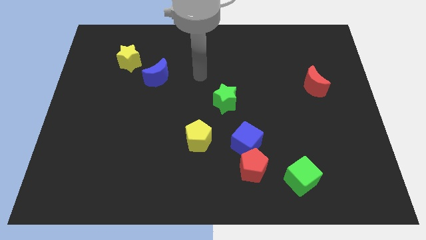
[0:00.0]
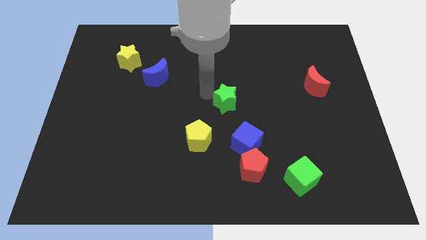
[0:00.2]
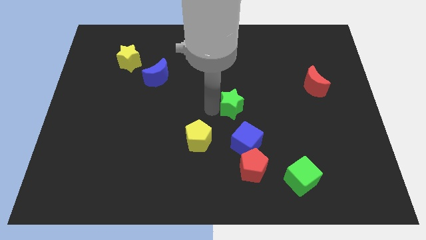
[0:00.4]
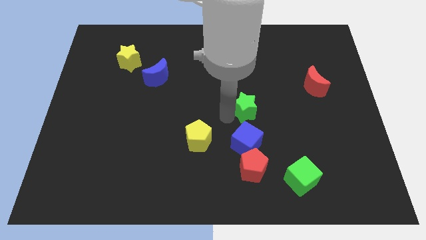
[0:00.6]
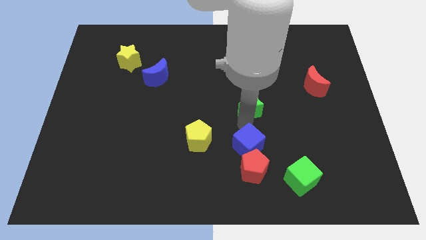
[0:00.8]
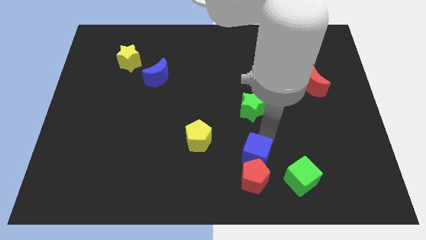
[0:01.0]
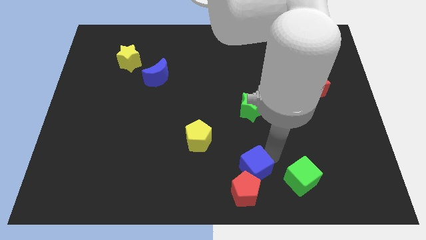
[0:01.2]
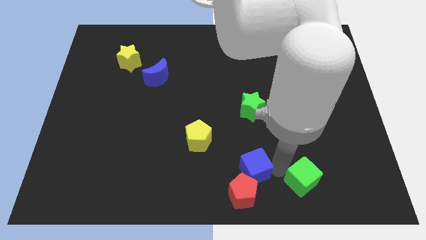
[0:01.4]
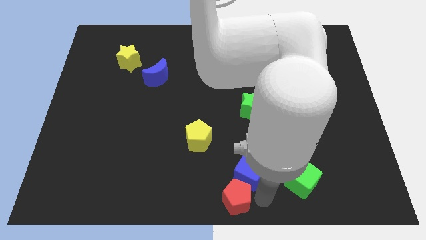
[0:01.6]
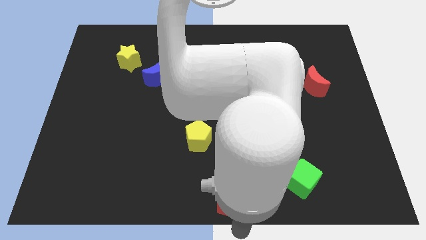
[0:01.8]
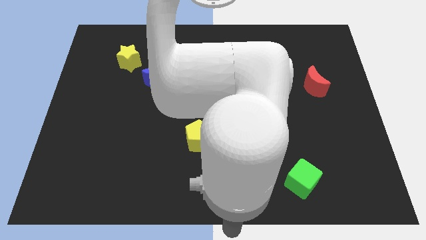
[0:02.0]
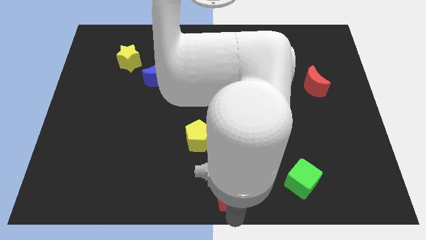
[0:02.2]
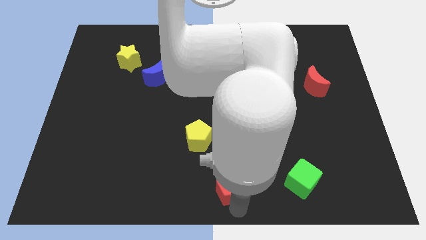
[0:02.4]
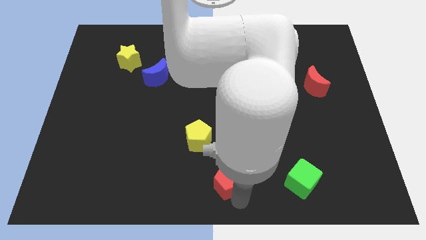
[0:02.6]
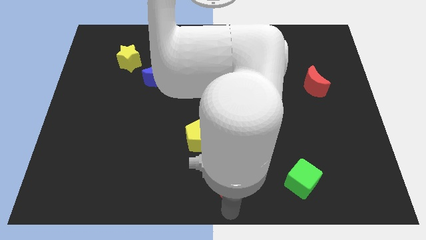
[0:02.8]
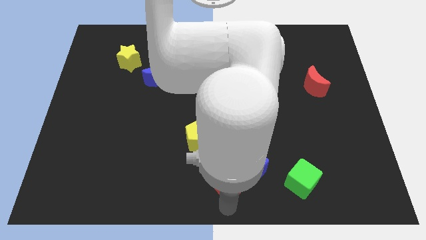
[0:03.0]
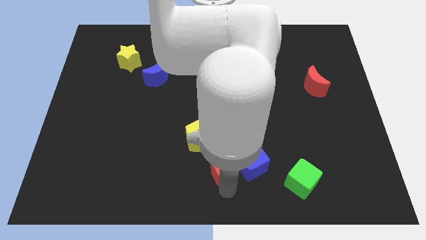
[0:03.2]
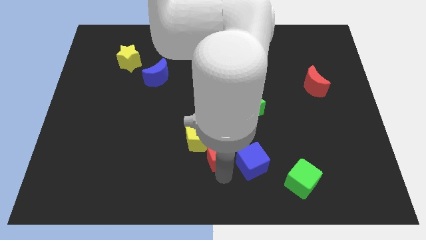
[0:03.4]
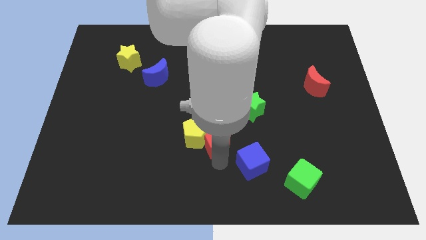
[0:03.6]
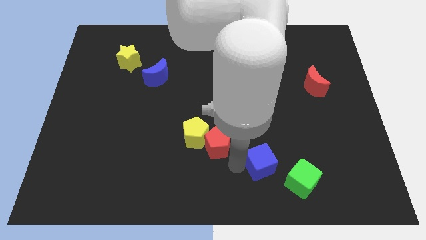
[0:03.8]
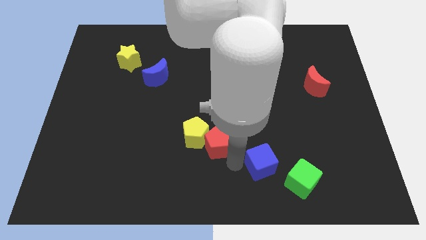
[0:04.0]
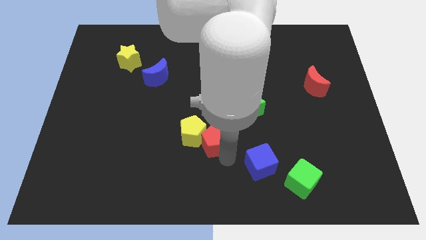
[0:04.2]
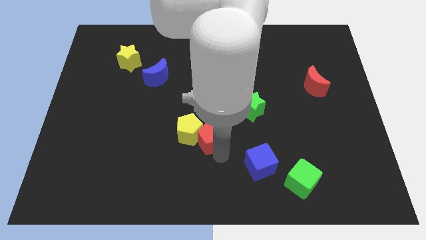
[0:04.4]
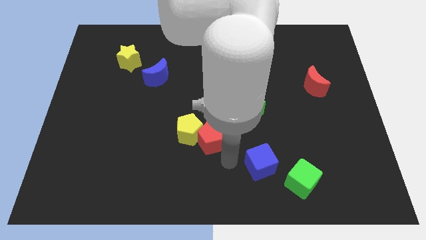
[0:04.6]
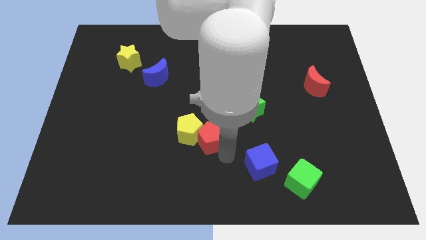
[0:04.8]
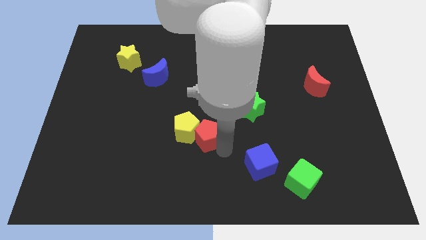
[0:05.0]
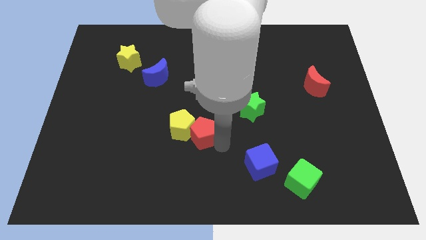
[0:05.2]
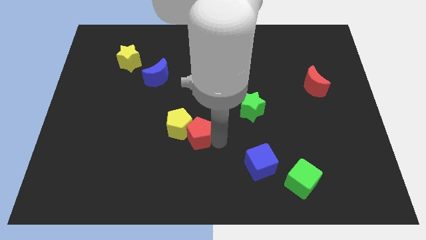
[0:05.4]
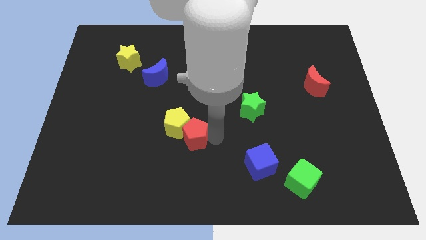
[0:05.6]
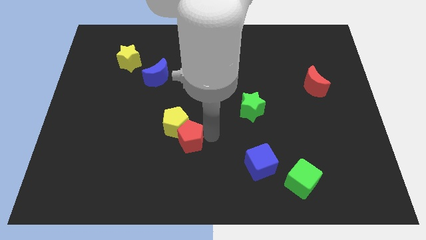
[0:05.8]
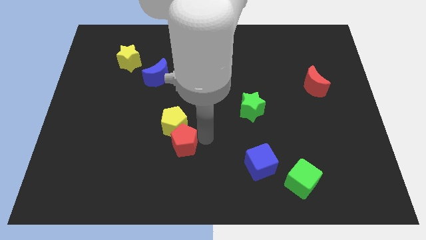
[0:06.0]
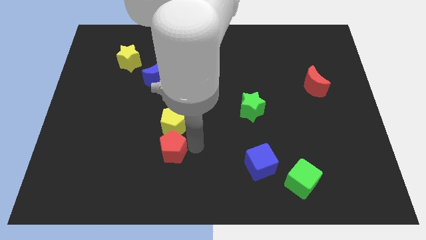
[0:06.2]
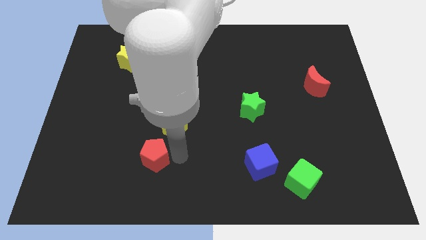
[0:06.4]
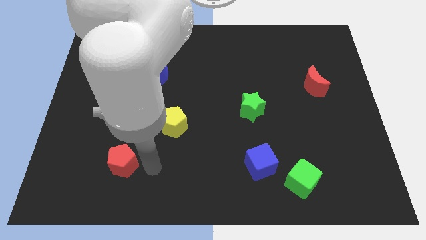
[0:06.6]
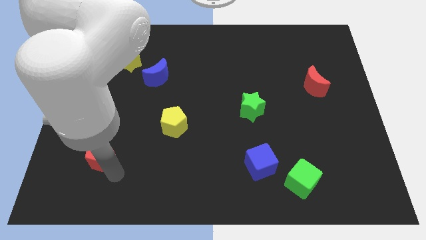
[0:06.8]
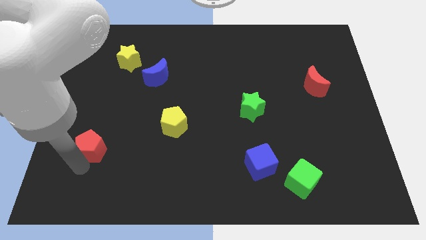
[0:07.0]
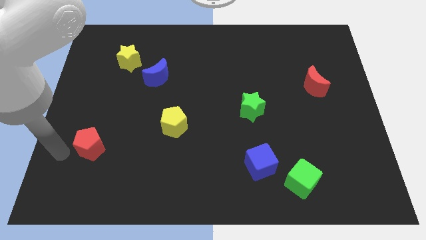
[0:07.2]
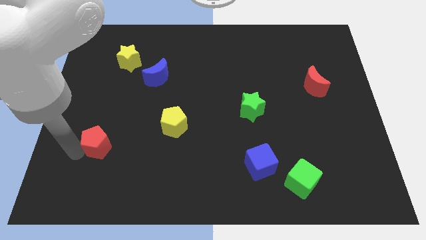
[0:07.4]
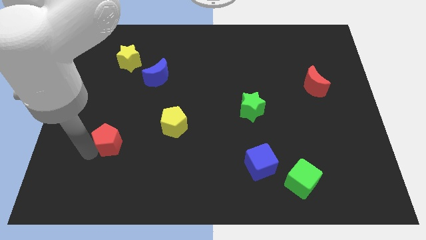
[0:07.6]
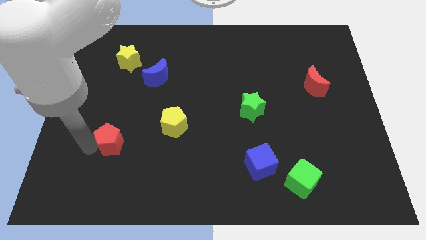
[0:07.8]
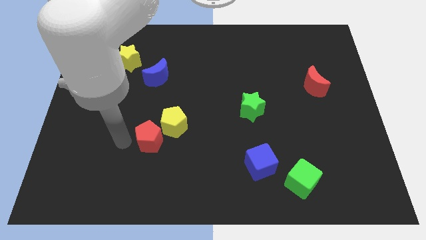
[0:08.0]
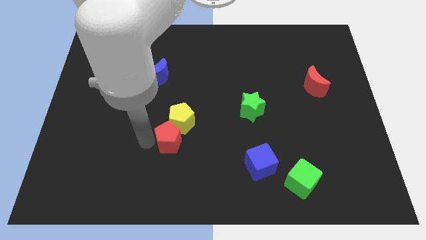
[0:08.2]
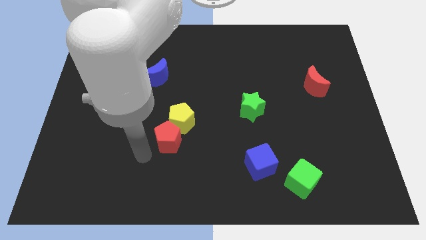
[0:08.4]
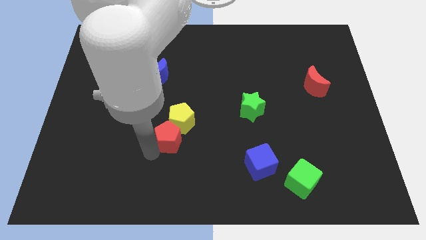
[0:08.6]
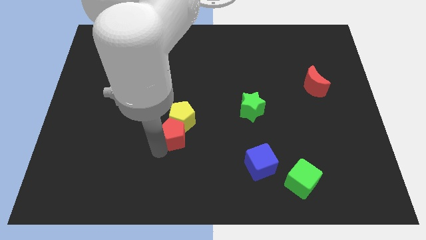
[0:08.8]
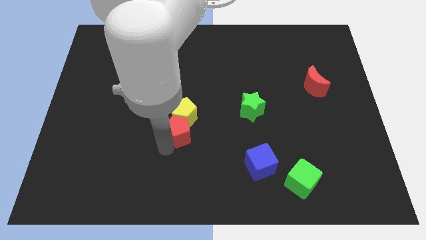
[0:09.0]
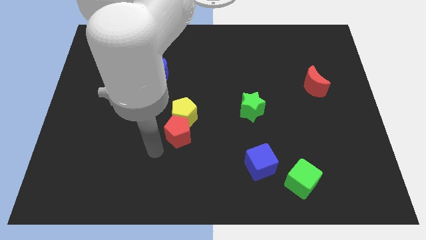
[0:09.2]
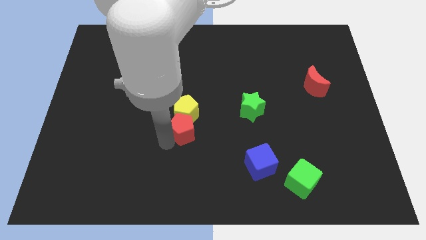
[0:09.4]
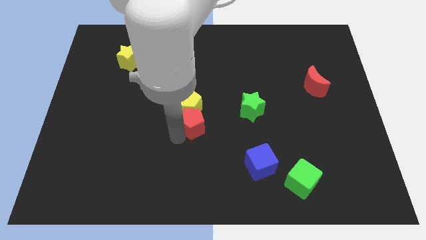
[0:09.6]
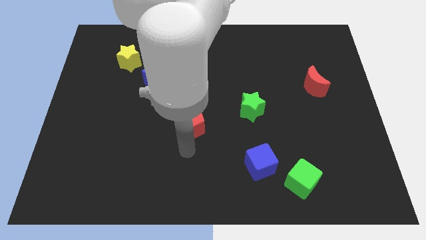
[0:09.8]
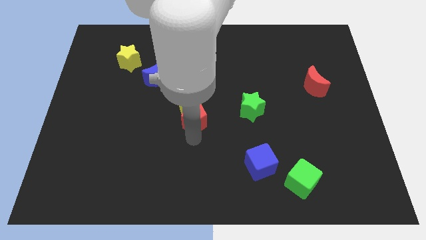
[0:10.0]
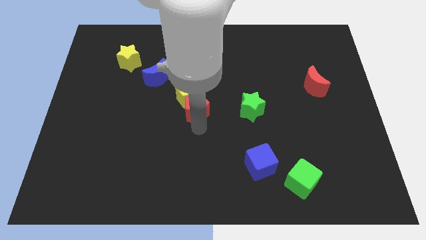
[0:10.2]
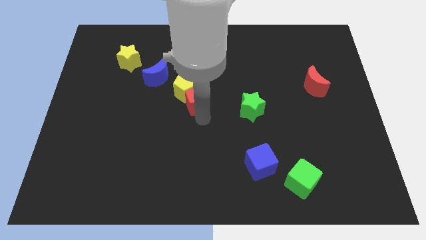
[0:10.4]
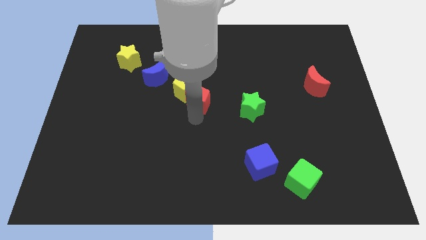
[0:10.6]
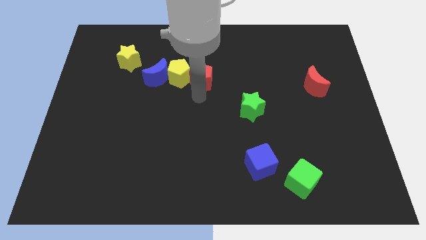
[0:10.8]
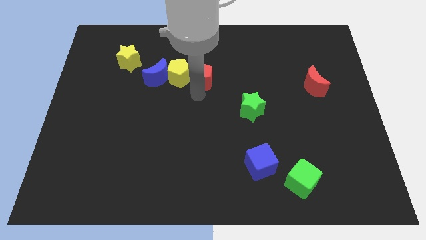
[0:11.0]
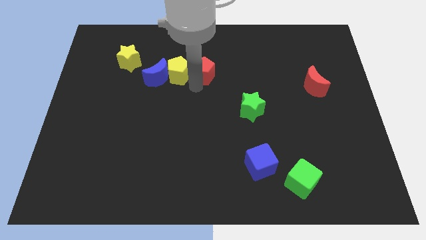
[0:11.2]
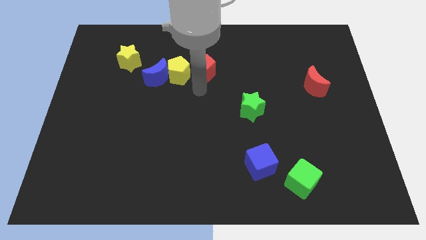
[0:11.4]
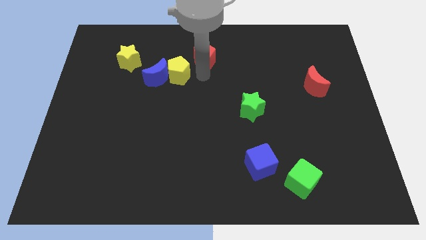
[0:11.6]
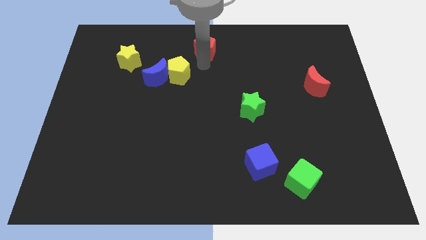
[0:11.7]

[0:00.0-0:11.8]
slide the red pentagon to the towards your base
